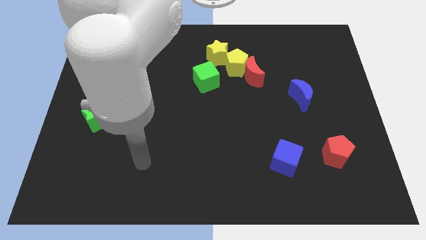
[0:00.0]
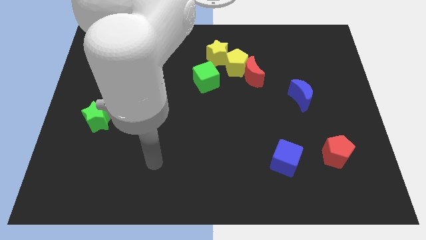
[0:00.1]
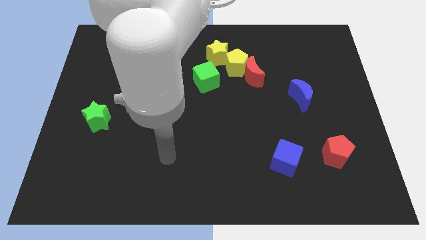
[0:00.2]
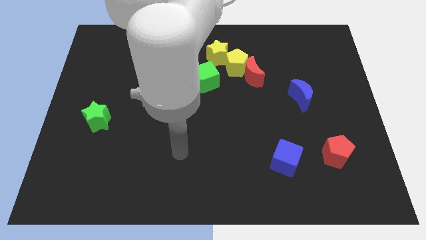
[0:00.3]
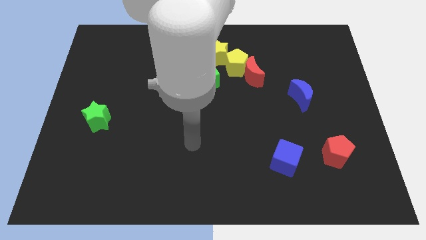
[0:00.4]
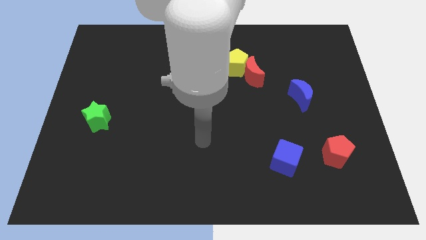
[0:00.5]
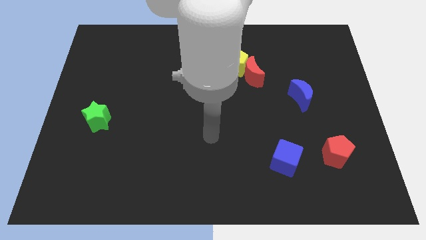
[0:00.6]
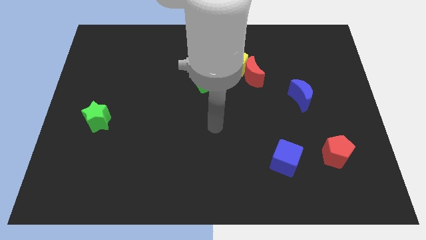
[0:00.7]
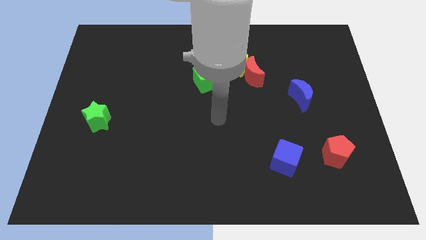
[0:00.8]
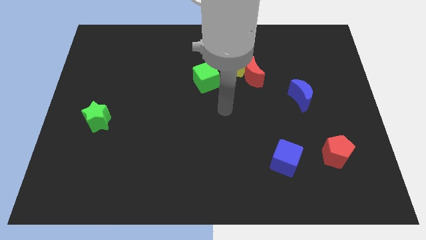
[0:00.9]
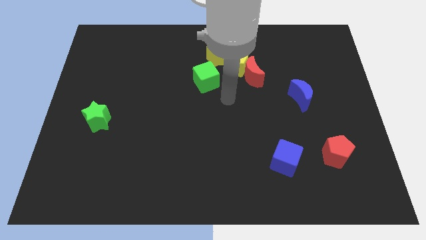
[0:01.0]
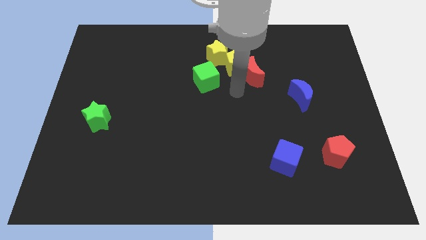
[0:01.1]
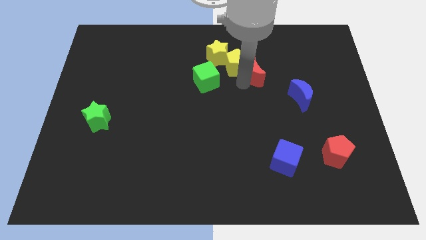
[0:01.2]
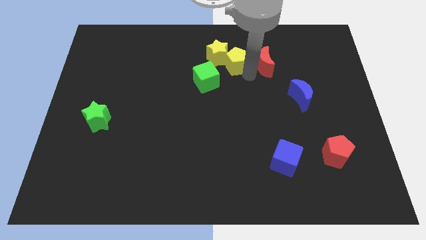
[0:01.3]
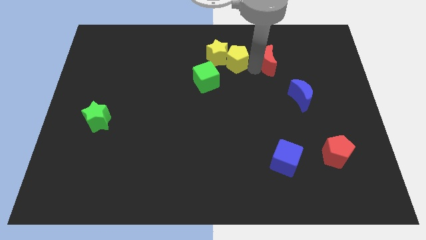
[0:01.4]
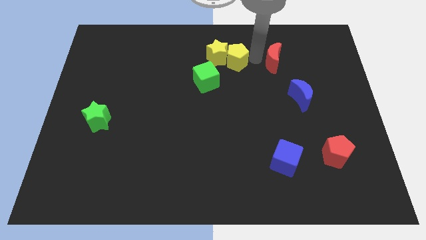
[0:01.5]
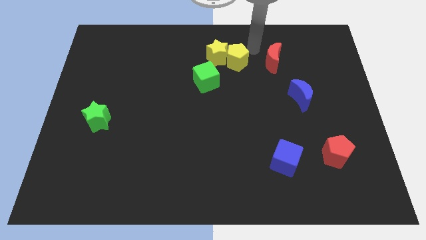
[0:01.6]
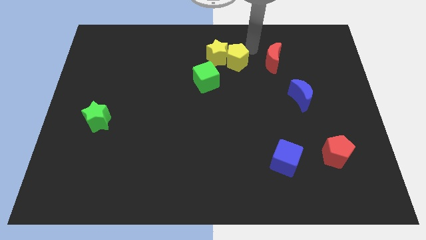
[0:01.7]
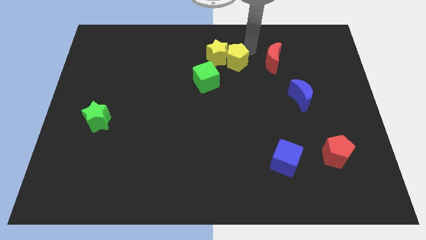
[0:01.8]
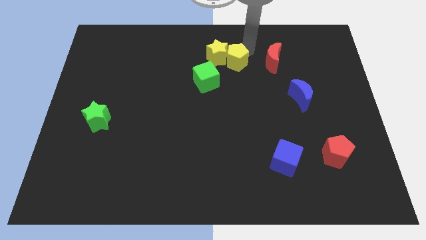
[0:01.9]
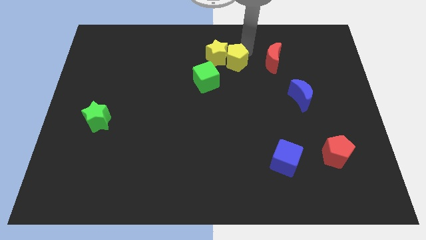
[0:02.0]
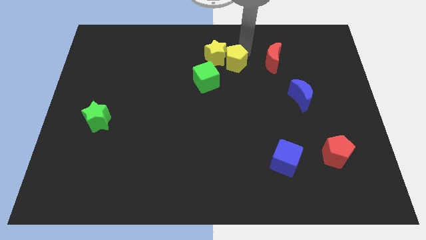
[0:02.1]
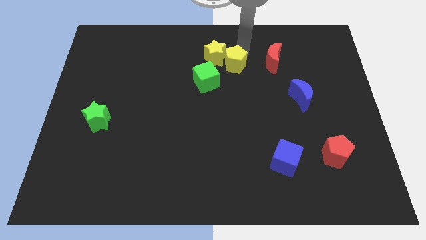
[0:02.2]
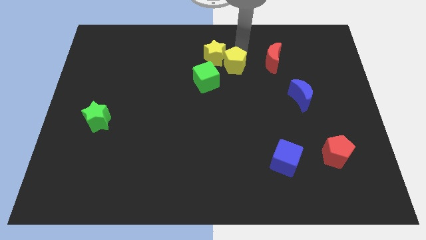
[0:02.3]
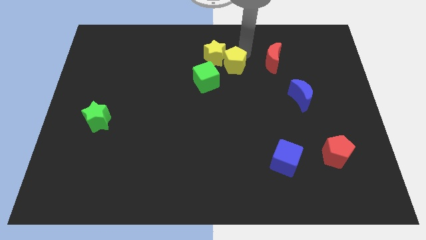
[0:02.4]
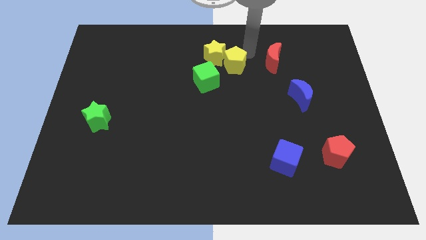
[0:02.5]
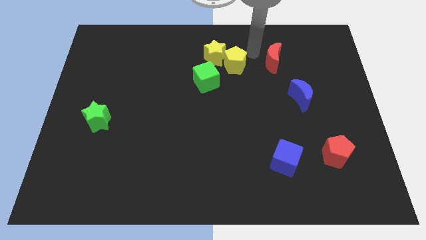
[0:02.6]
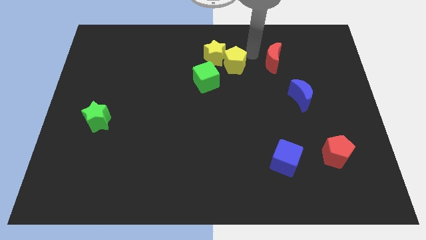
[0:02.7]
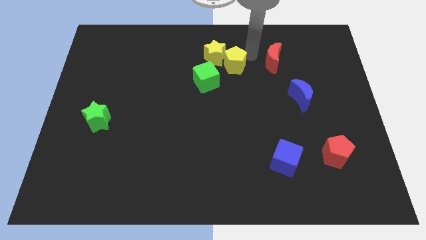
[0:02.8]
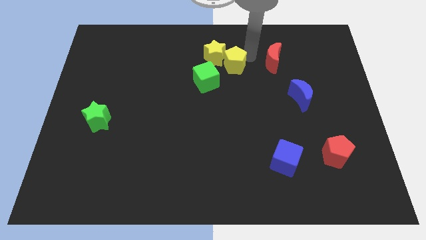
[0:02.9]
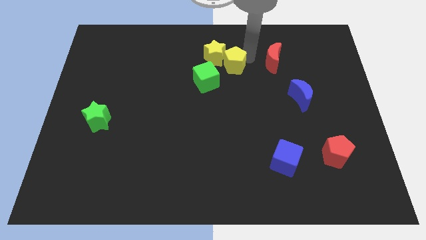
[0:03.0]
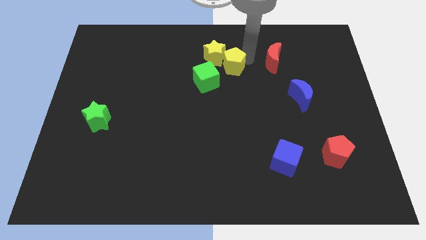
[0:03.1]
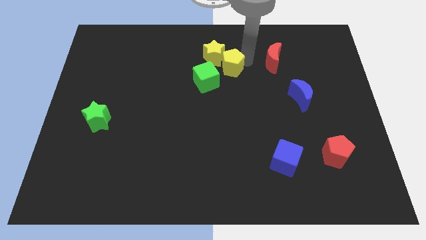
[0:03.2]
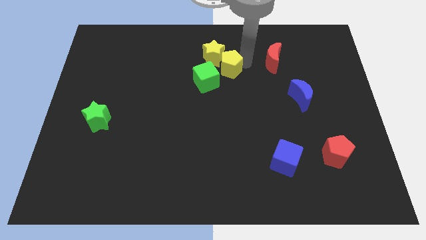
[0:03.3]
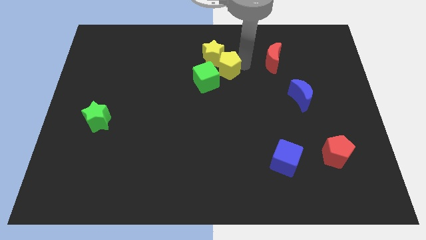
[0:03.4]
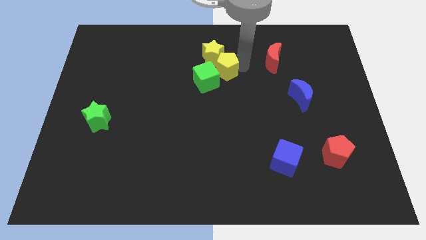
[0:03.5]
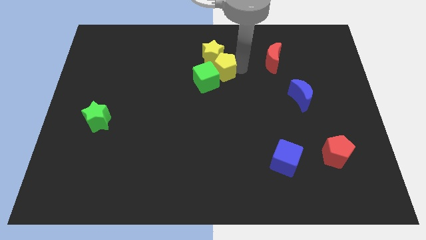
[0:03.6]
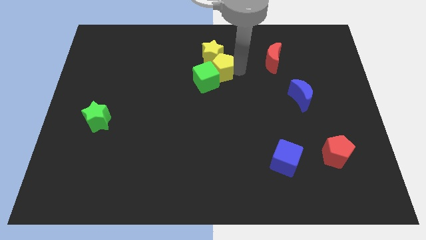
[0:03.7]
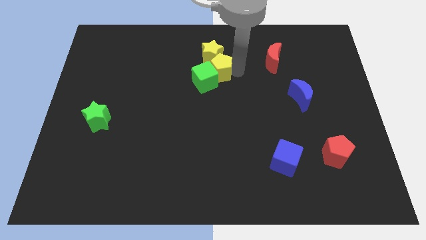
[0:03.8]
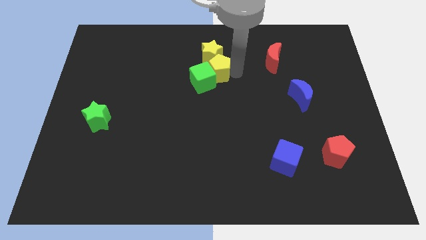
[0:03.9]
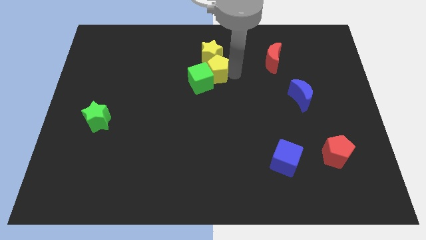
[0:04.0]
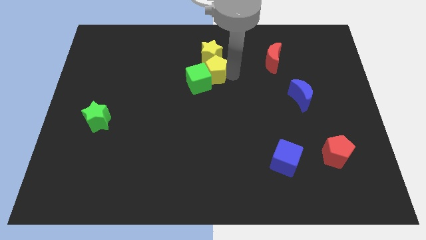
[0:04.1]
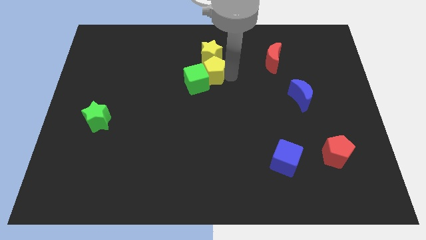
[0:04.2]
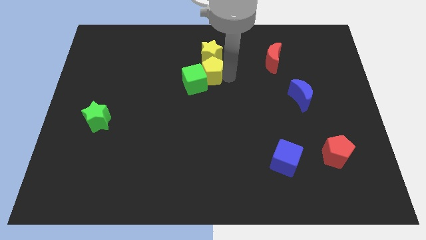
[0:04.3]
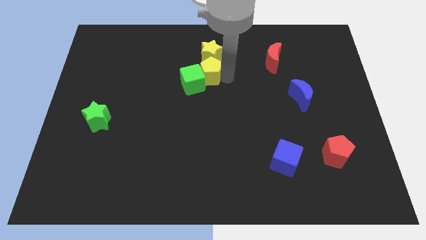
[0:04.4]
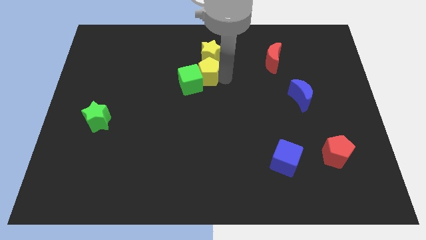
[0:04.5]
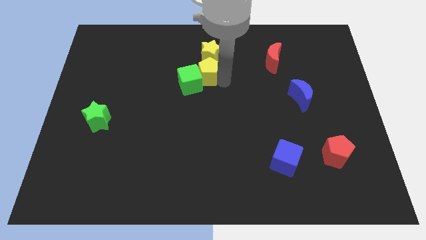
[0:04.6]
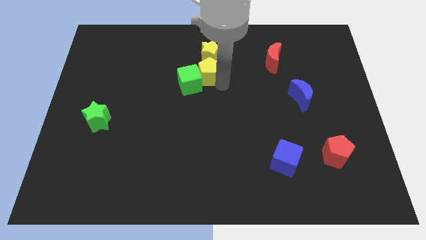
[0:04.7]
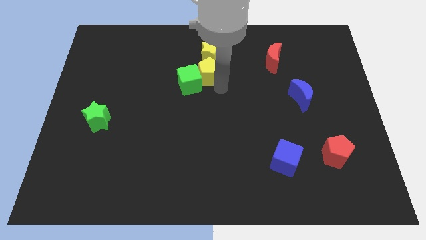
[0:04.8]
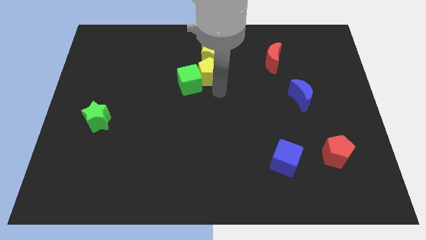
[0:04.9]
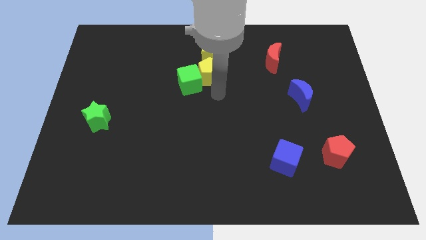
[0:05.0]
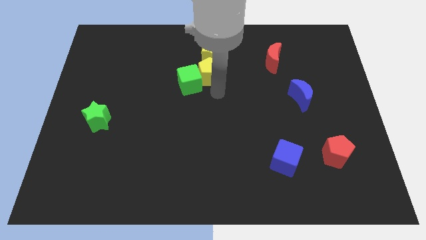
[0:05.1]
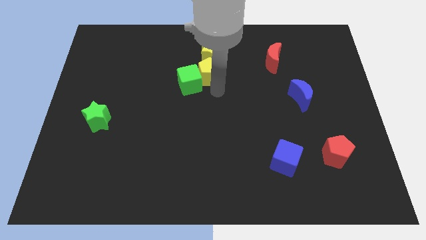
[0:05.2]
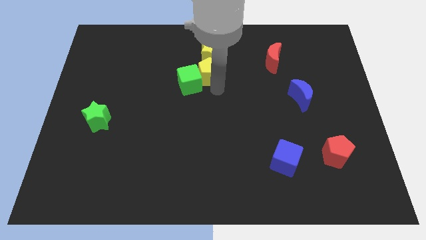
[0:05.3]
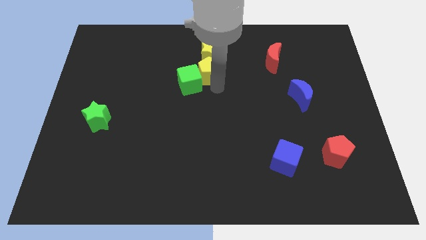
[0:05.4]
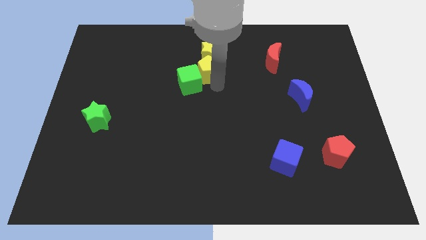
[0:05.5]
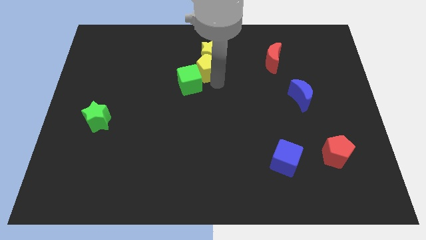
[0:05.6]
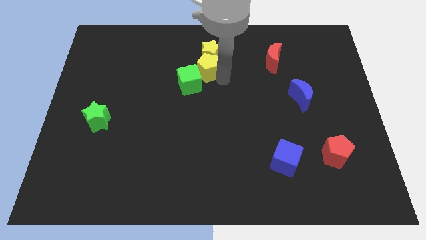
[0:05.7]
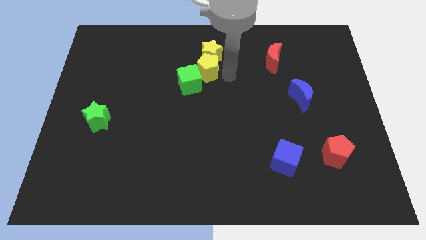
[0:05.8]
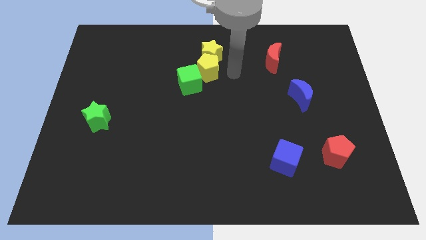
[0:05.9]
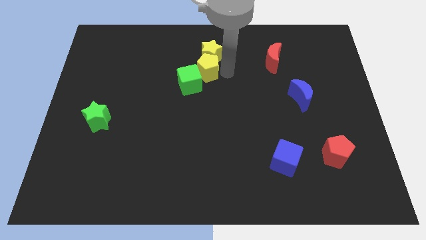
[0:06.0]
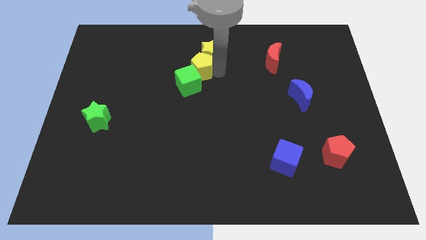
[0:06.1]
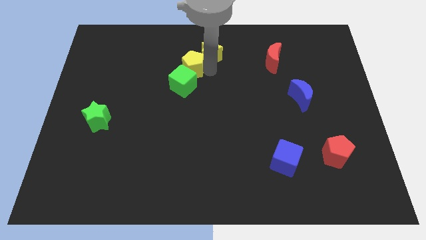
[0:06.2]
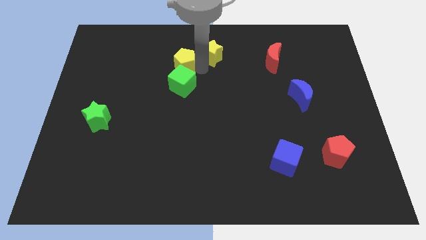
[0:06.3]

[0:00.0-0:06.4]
push the yellow pentagon diagonally up and to the left of the green cube

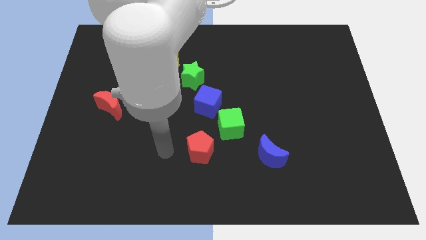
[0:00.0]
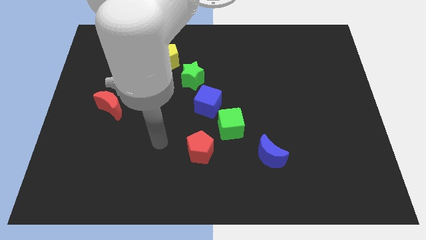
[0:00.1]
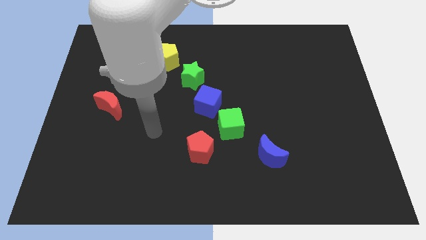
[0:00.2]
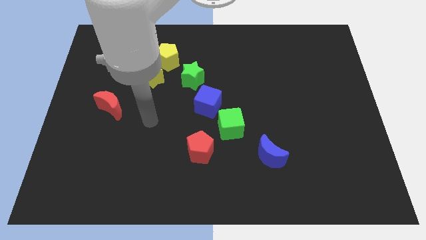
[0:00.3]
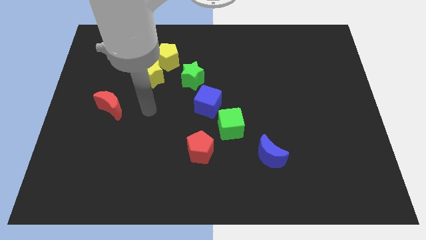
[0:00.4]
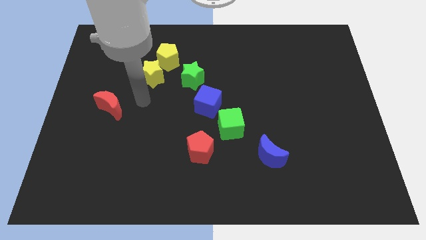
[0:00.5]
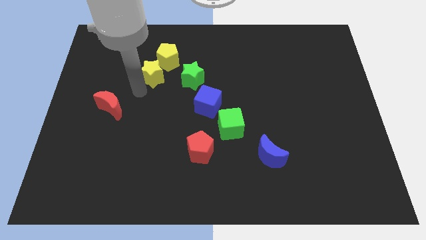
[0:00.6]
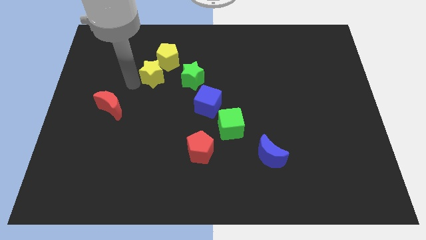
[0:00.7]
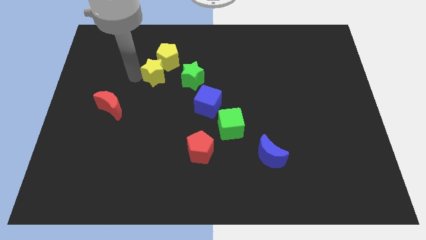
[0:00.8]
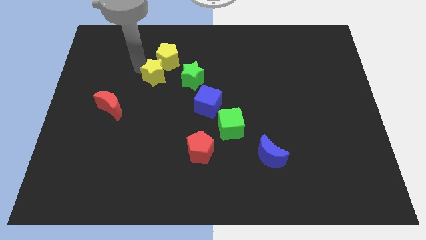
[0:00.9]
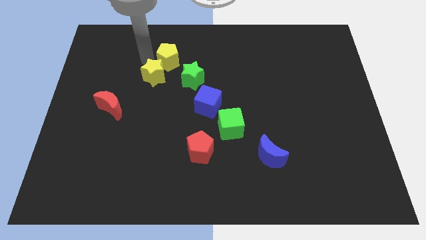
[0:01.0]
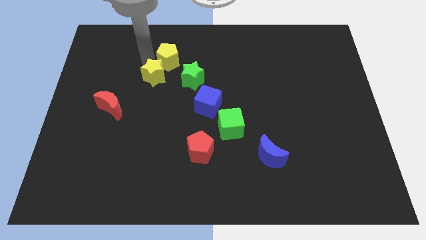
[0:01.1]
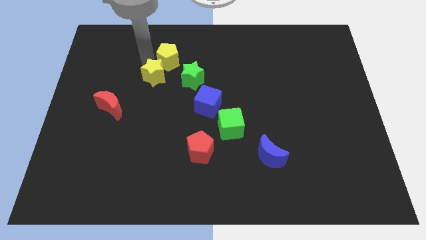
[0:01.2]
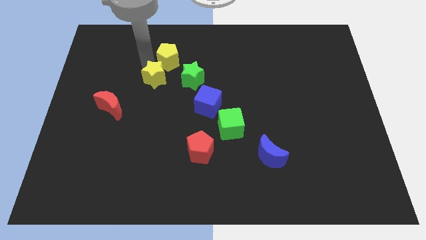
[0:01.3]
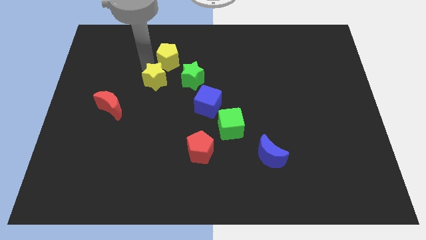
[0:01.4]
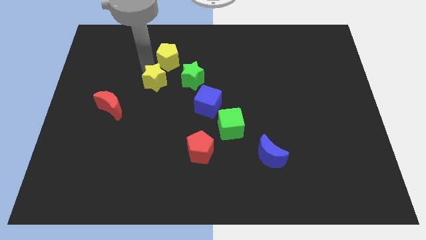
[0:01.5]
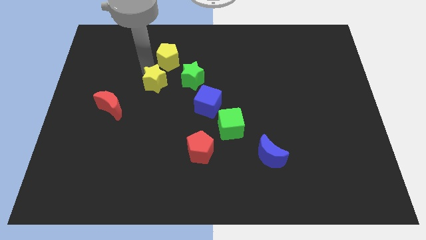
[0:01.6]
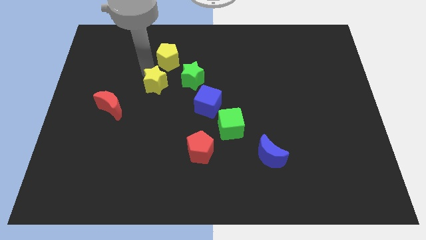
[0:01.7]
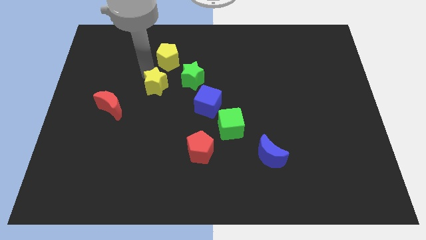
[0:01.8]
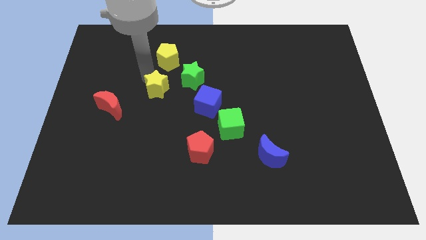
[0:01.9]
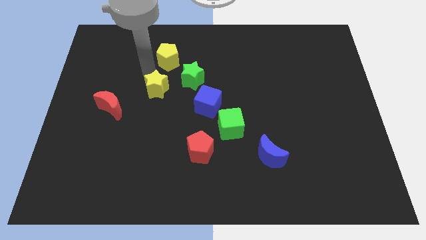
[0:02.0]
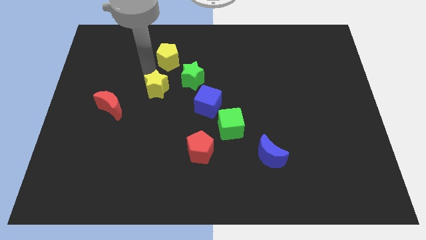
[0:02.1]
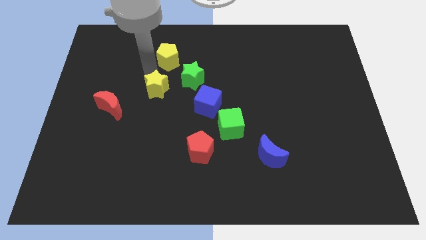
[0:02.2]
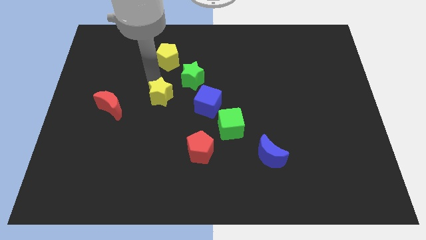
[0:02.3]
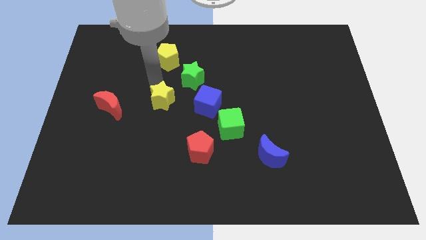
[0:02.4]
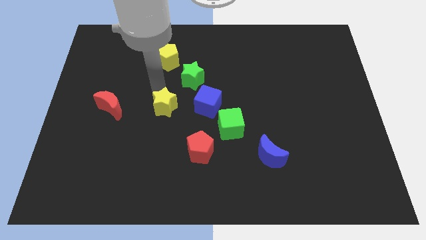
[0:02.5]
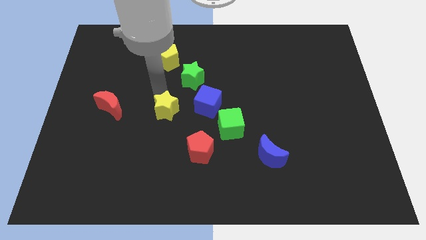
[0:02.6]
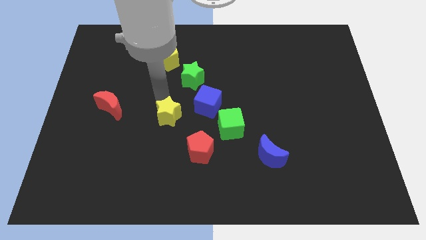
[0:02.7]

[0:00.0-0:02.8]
put the yellow star to the top left of the red pentagon
